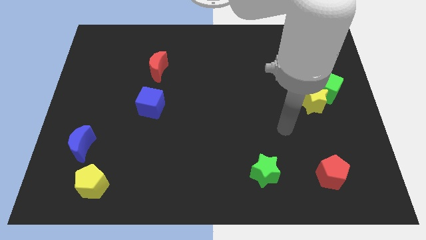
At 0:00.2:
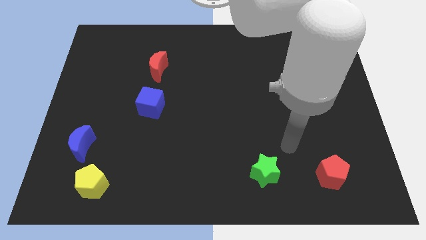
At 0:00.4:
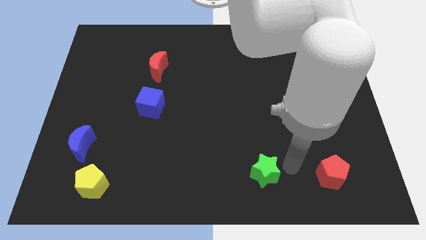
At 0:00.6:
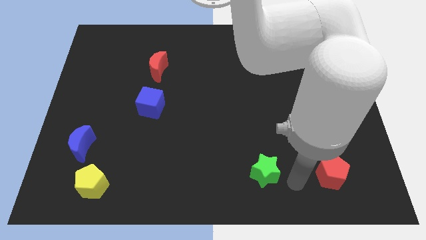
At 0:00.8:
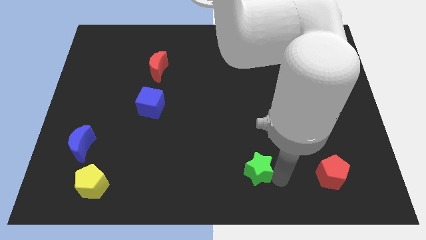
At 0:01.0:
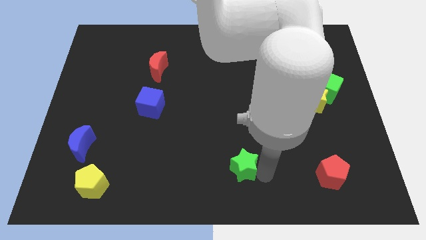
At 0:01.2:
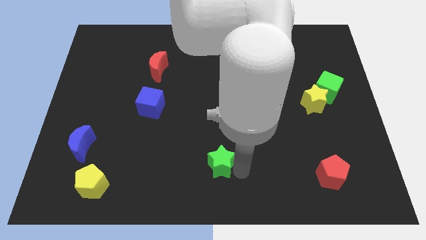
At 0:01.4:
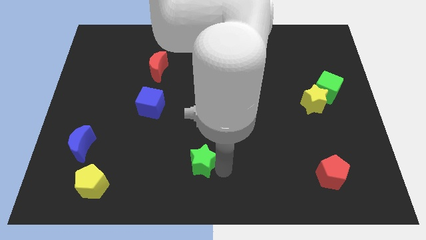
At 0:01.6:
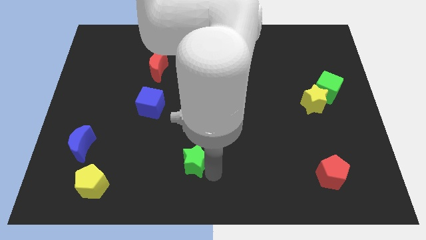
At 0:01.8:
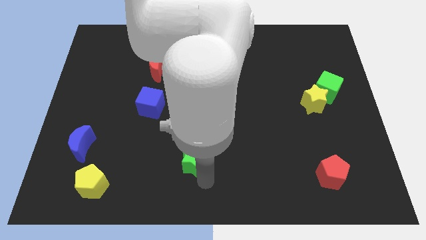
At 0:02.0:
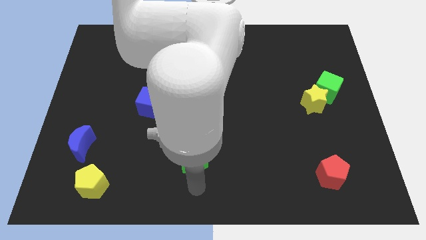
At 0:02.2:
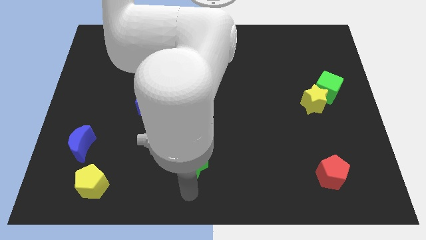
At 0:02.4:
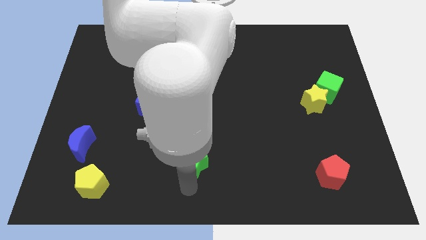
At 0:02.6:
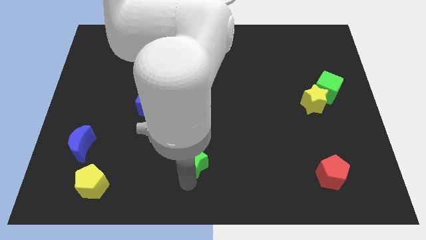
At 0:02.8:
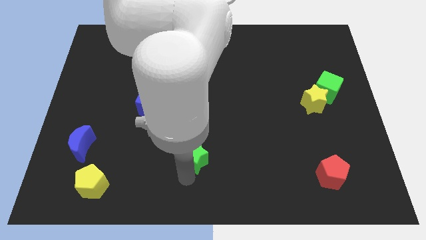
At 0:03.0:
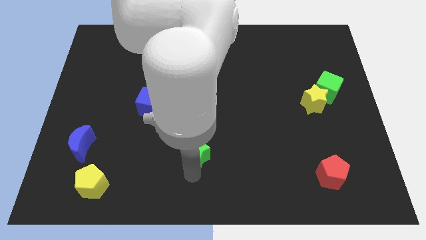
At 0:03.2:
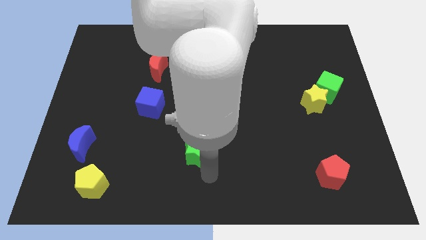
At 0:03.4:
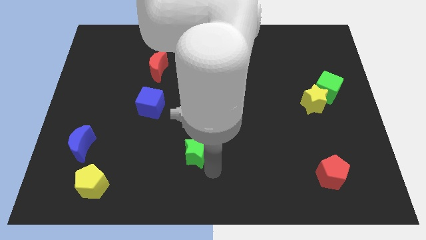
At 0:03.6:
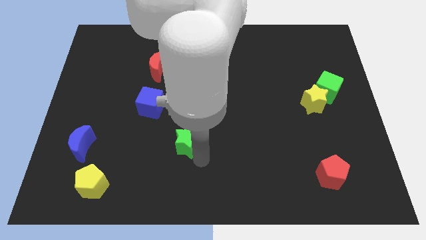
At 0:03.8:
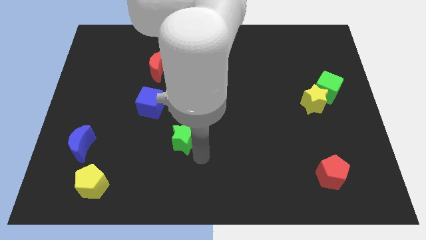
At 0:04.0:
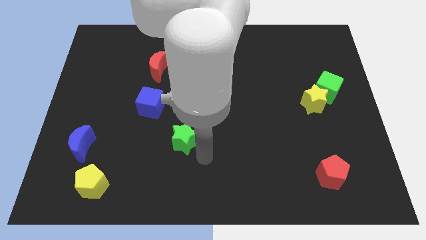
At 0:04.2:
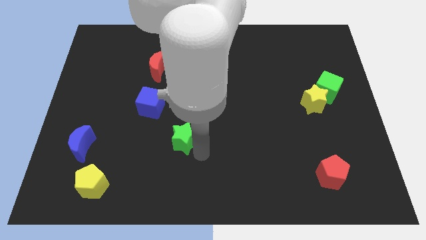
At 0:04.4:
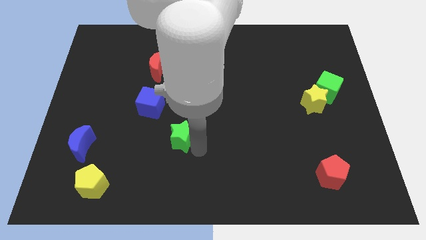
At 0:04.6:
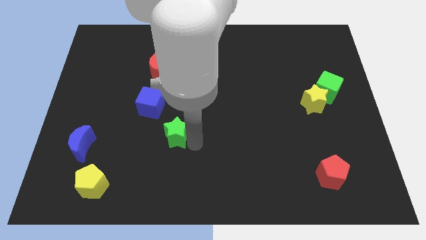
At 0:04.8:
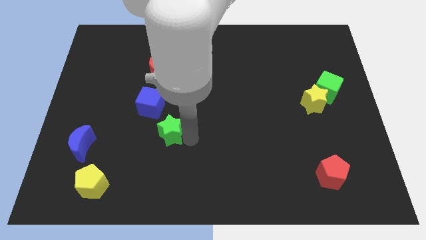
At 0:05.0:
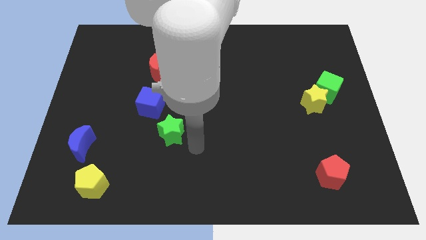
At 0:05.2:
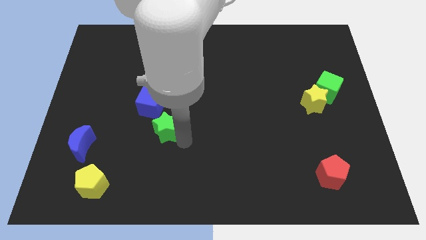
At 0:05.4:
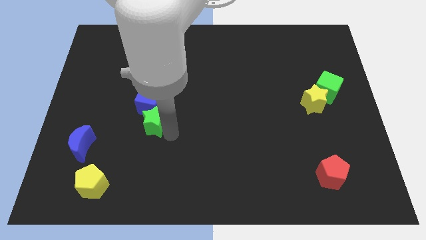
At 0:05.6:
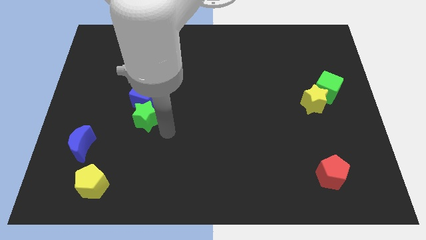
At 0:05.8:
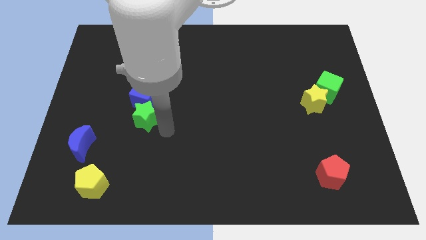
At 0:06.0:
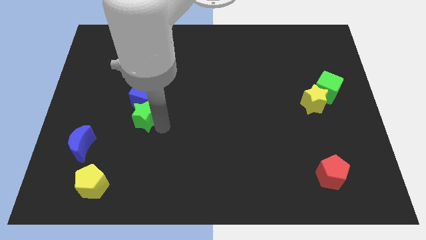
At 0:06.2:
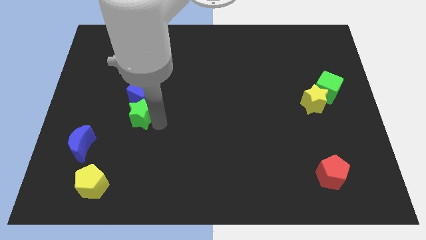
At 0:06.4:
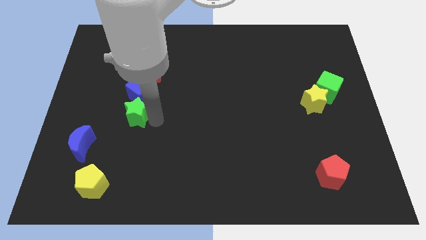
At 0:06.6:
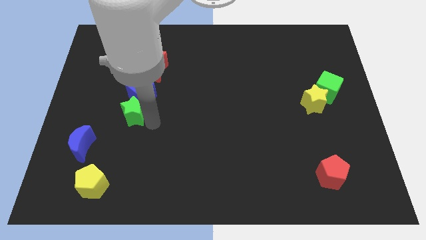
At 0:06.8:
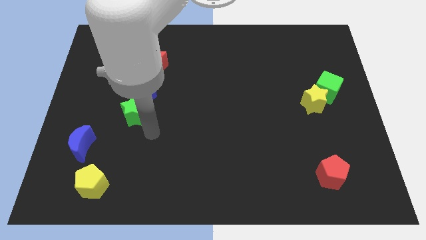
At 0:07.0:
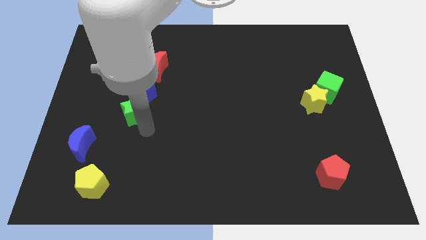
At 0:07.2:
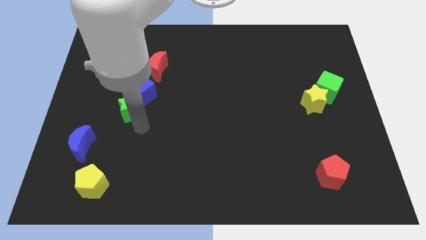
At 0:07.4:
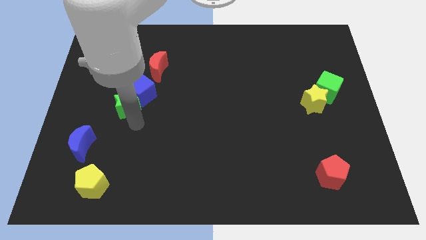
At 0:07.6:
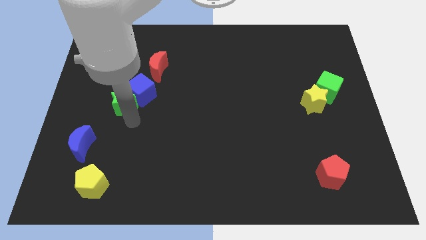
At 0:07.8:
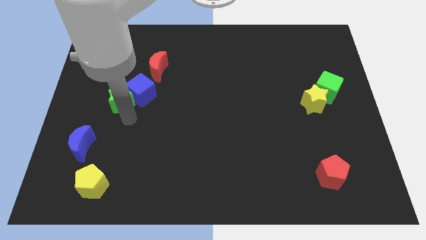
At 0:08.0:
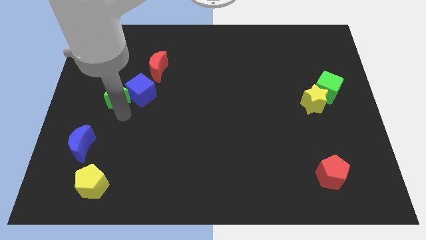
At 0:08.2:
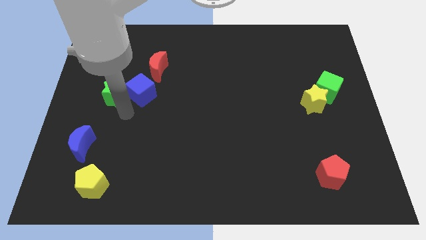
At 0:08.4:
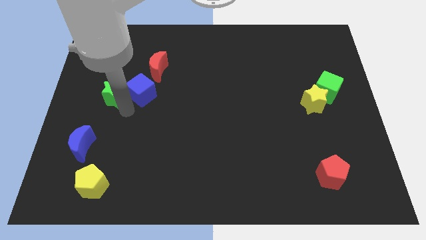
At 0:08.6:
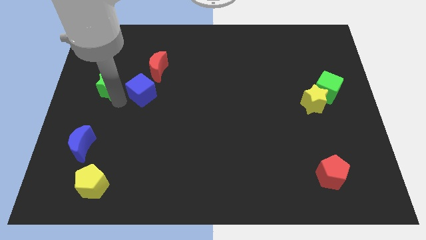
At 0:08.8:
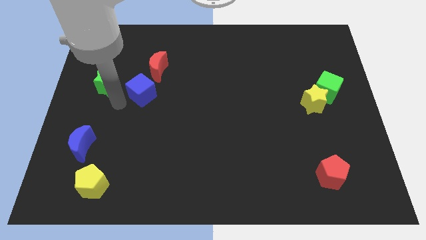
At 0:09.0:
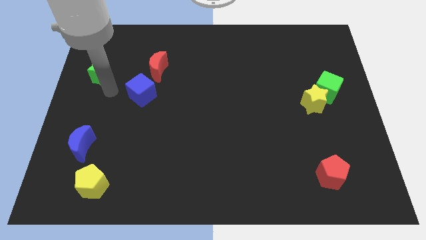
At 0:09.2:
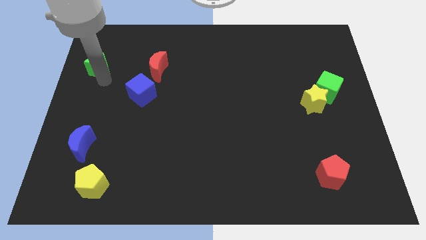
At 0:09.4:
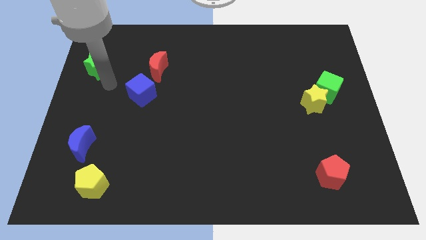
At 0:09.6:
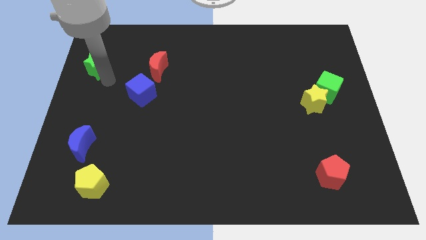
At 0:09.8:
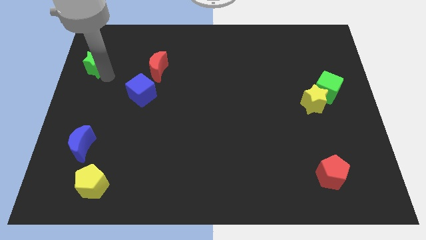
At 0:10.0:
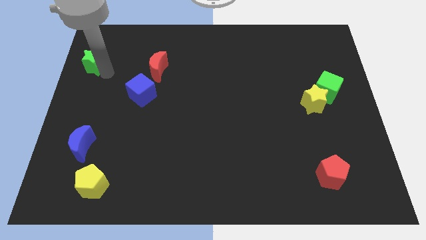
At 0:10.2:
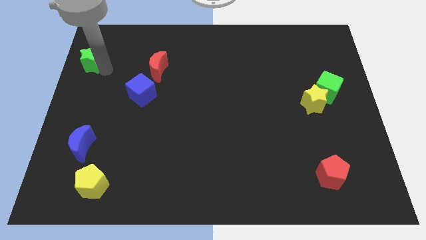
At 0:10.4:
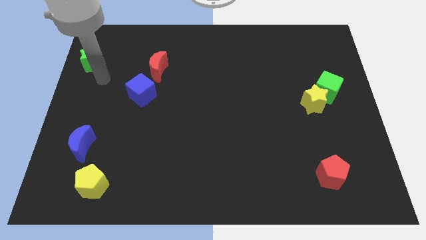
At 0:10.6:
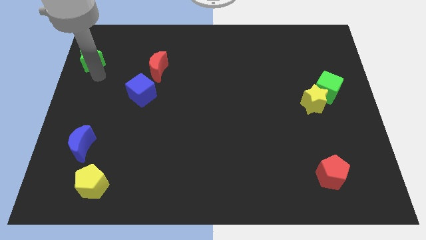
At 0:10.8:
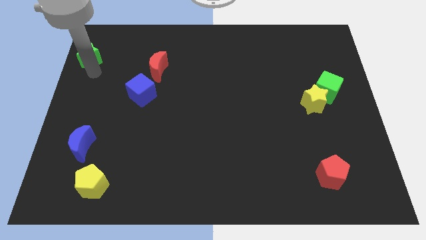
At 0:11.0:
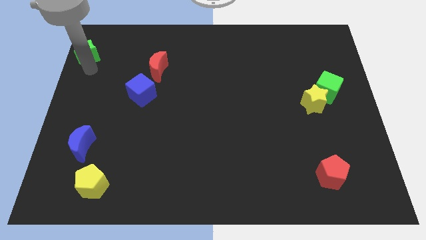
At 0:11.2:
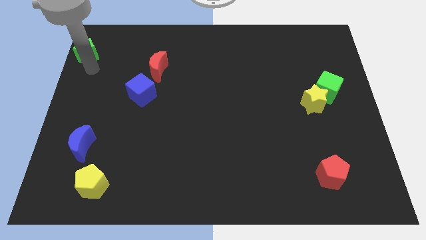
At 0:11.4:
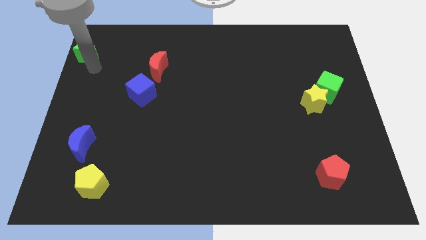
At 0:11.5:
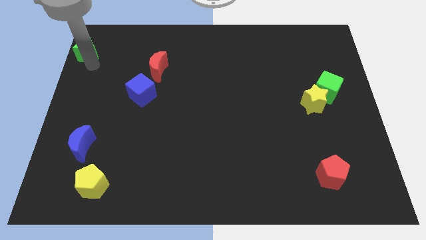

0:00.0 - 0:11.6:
move the green star to the top left corner

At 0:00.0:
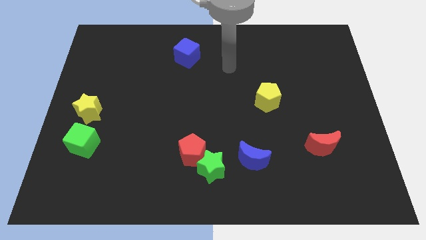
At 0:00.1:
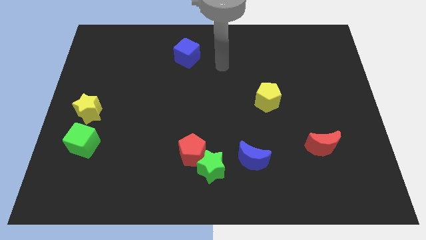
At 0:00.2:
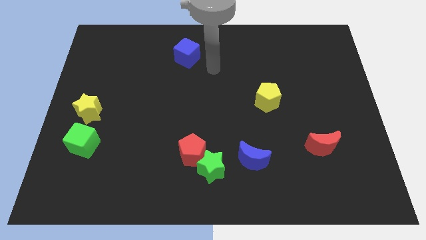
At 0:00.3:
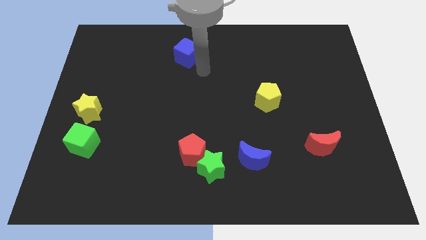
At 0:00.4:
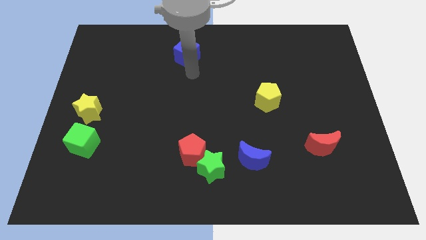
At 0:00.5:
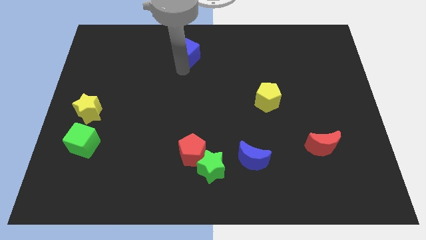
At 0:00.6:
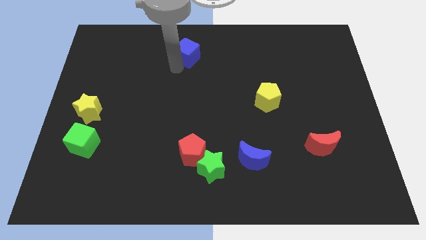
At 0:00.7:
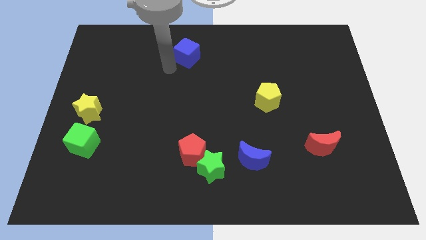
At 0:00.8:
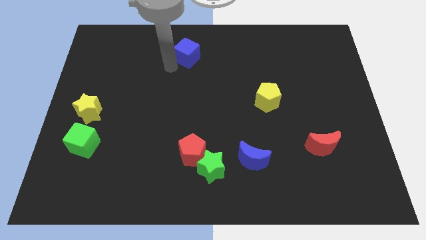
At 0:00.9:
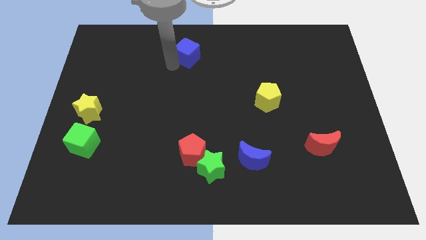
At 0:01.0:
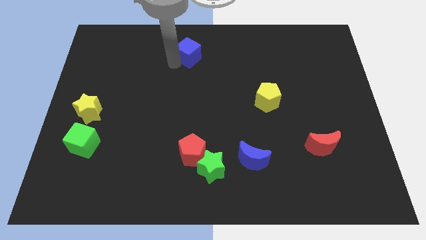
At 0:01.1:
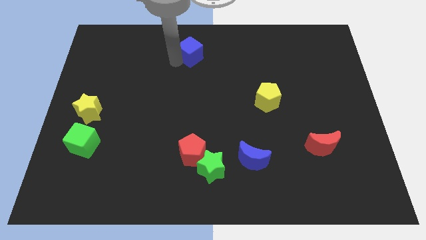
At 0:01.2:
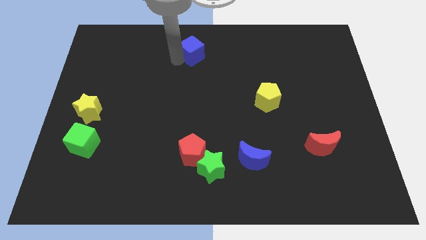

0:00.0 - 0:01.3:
push the blue cube to the top side

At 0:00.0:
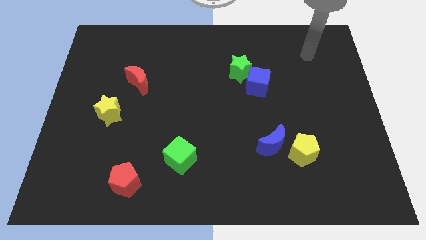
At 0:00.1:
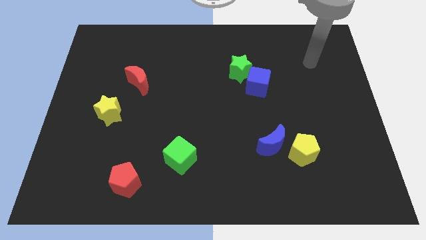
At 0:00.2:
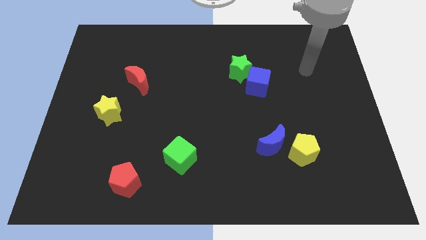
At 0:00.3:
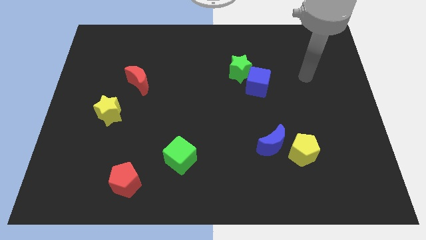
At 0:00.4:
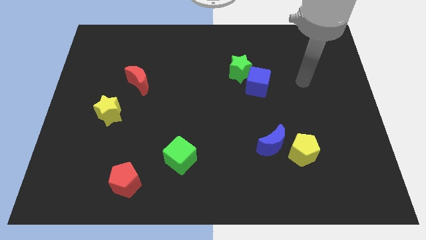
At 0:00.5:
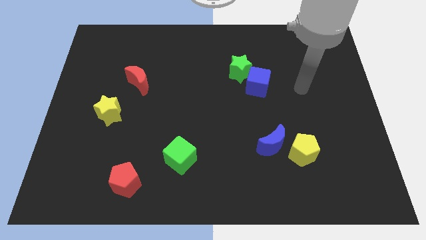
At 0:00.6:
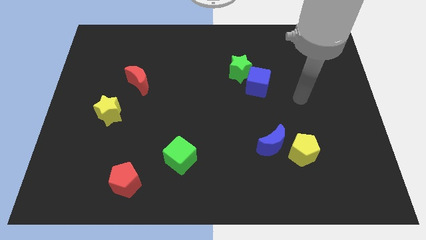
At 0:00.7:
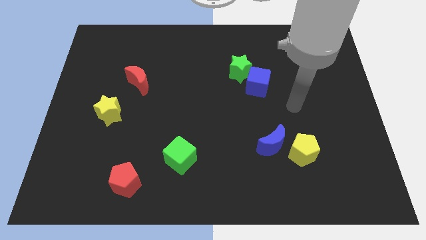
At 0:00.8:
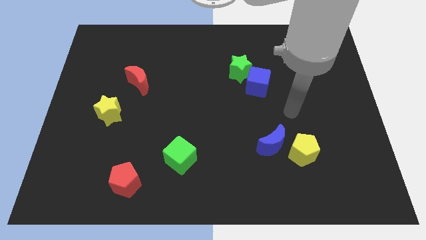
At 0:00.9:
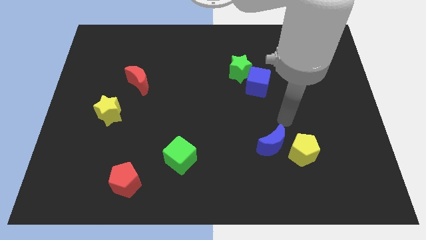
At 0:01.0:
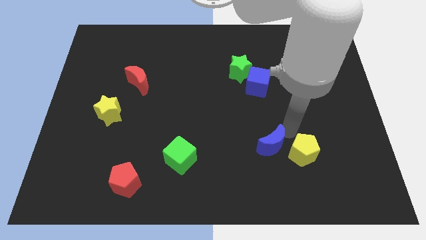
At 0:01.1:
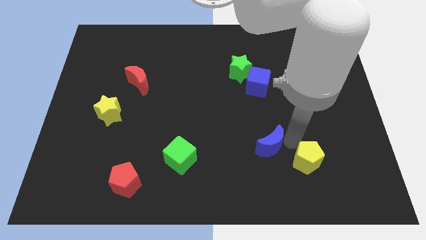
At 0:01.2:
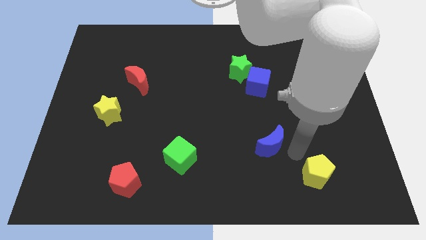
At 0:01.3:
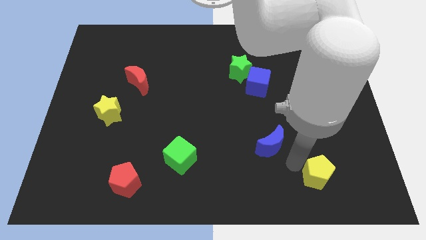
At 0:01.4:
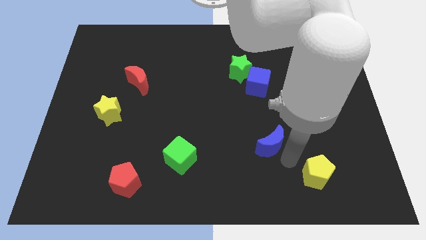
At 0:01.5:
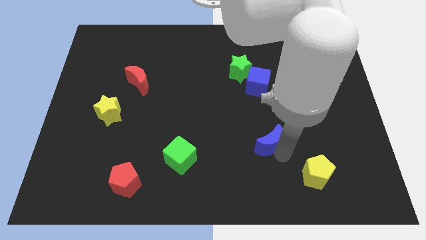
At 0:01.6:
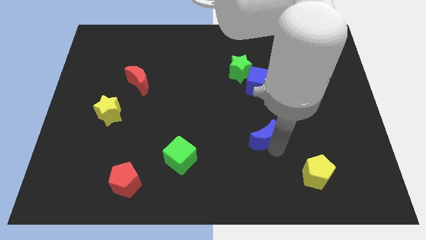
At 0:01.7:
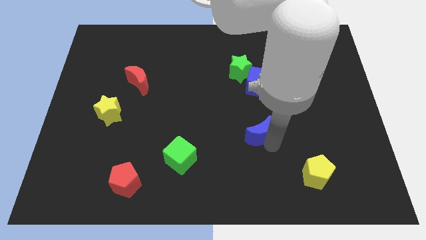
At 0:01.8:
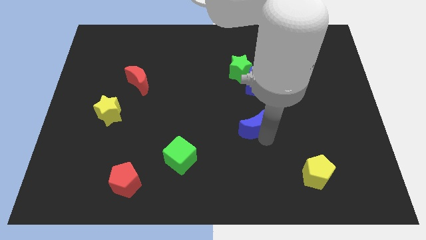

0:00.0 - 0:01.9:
put the blue moon to the center of the board
